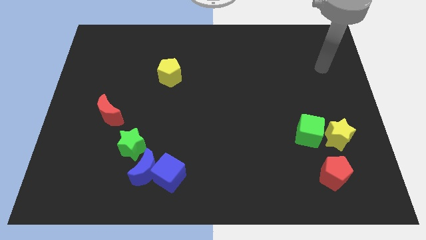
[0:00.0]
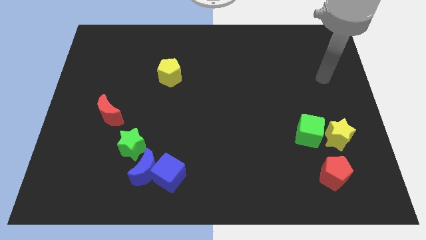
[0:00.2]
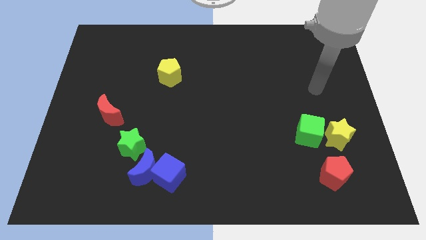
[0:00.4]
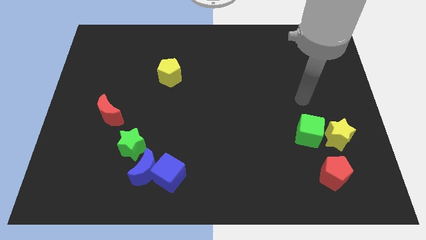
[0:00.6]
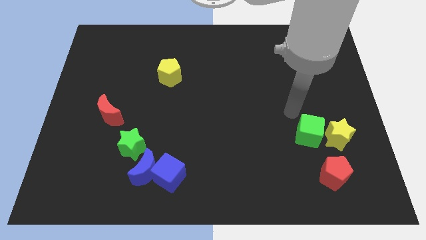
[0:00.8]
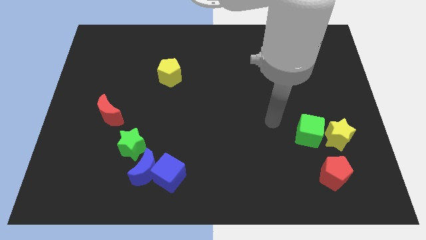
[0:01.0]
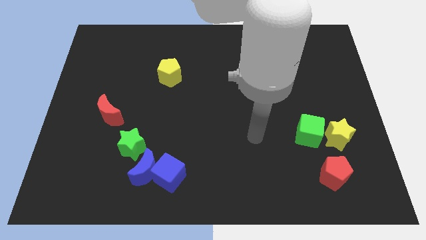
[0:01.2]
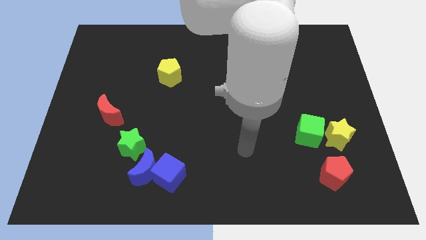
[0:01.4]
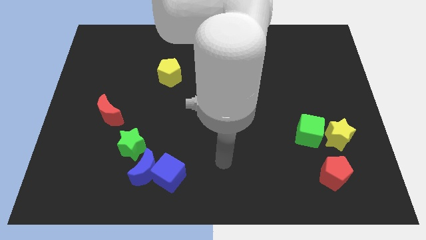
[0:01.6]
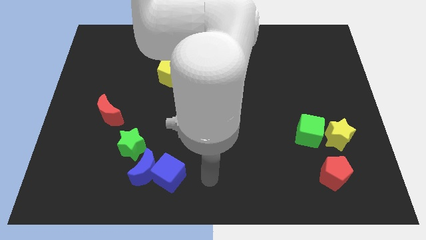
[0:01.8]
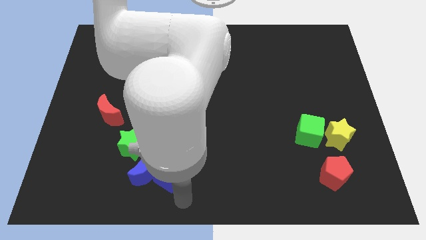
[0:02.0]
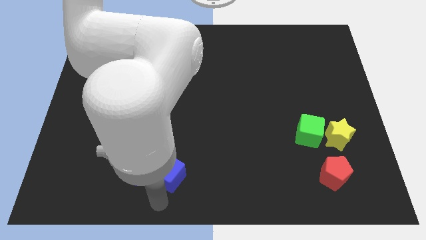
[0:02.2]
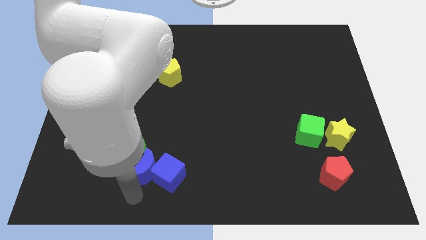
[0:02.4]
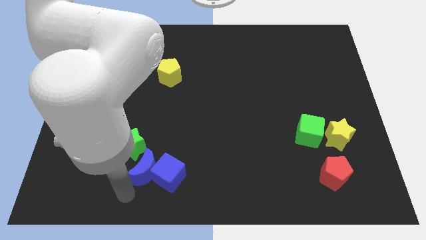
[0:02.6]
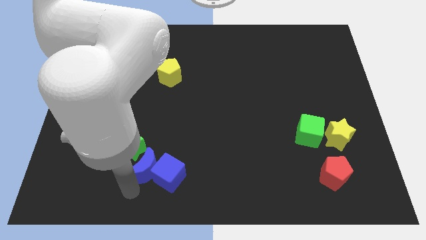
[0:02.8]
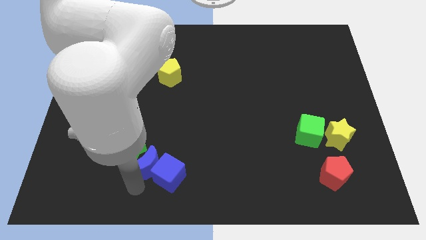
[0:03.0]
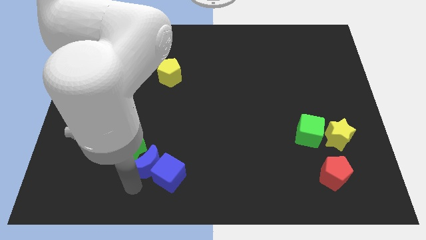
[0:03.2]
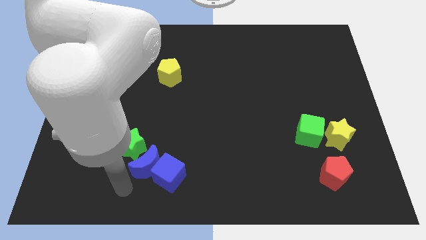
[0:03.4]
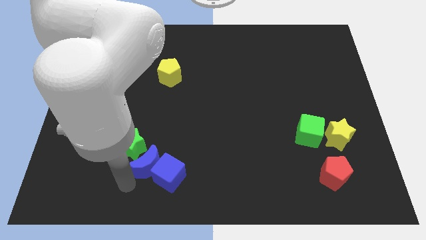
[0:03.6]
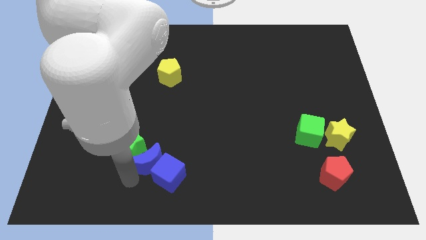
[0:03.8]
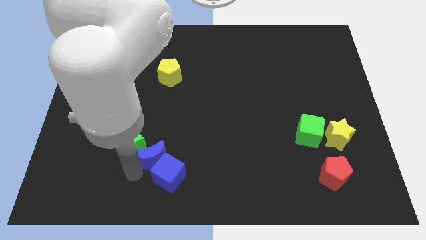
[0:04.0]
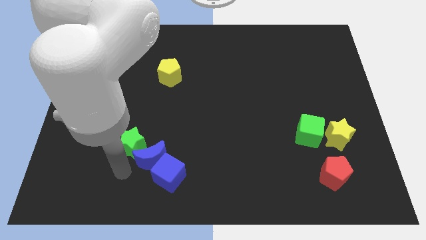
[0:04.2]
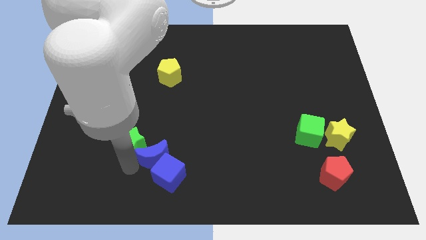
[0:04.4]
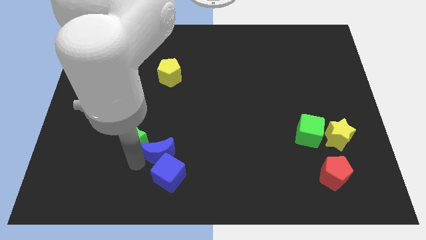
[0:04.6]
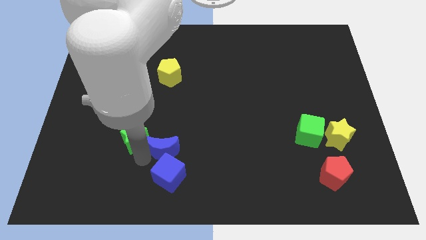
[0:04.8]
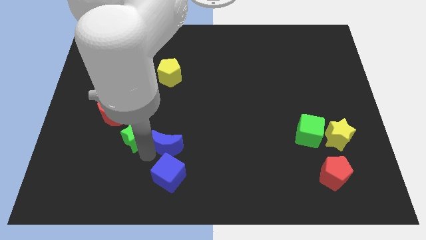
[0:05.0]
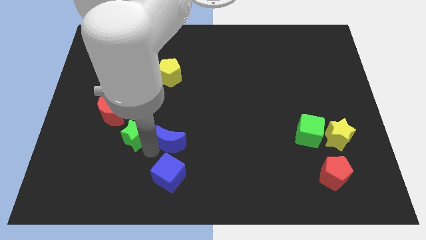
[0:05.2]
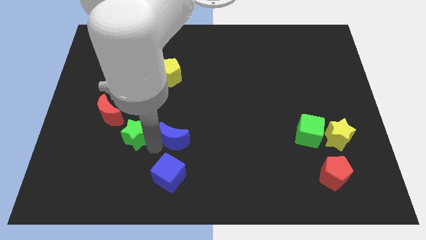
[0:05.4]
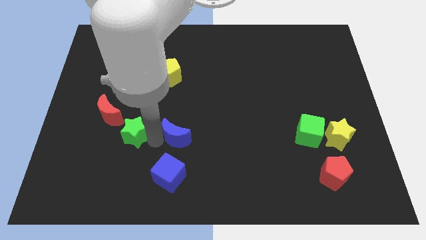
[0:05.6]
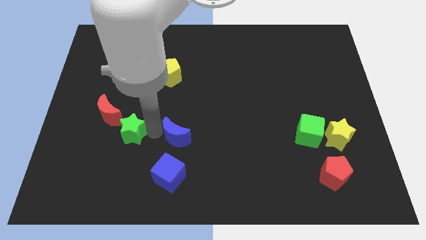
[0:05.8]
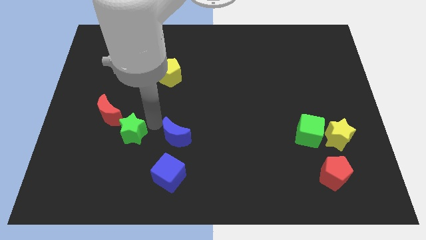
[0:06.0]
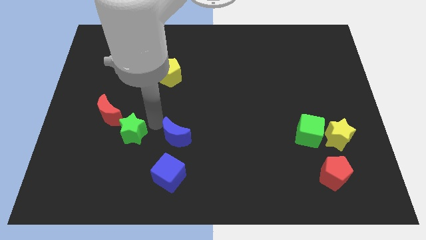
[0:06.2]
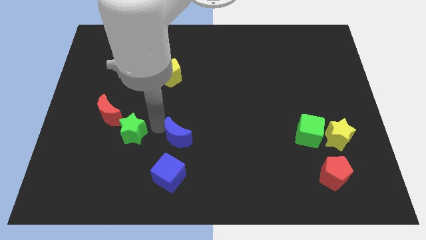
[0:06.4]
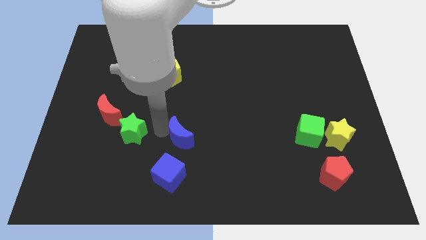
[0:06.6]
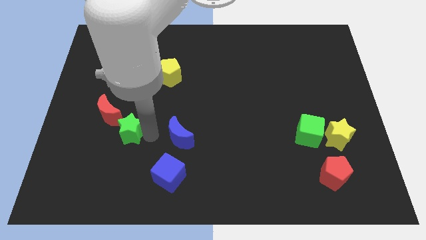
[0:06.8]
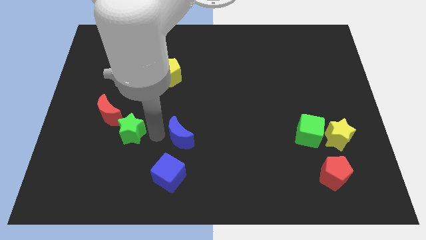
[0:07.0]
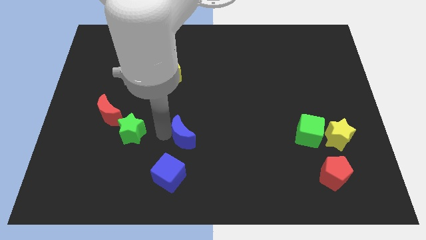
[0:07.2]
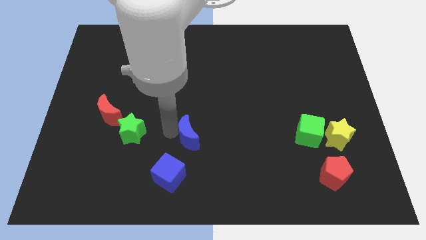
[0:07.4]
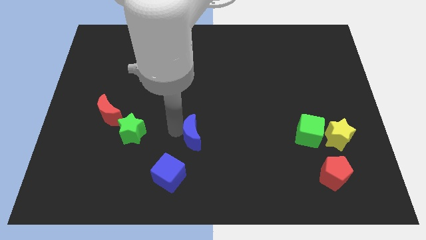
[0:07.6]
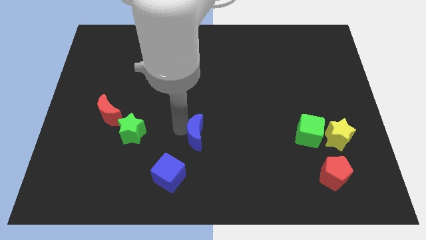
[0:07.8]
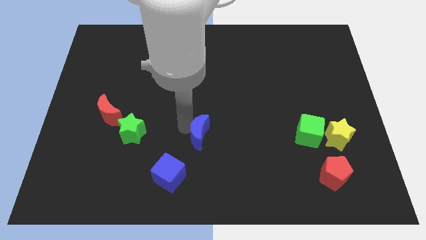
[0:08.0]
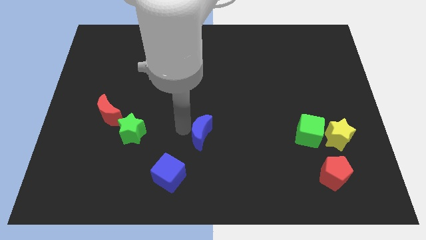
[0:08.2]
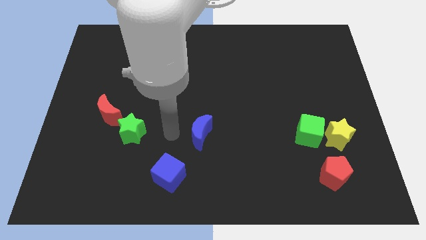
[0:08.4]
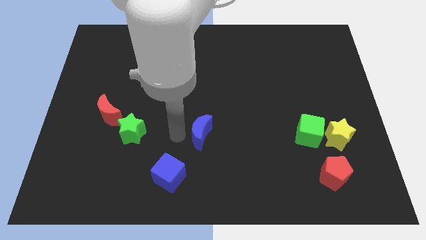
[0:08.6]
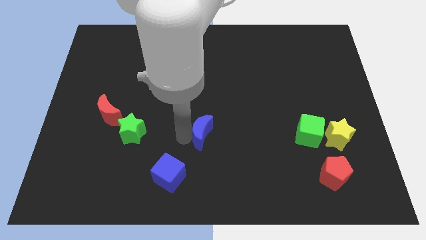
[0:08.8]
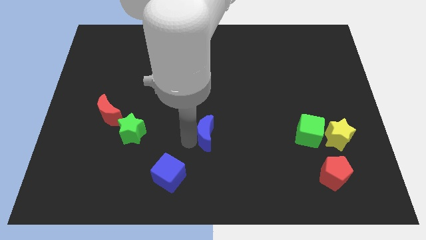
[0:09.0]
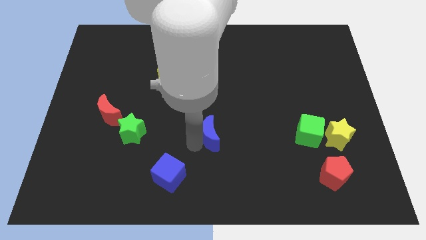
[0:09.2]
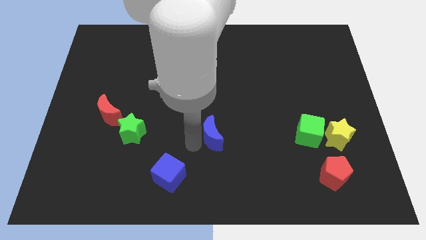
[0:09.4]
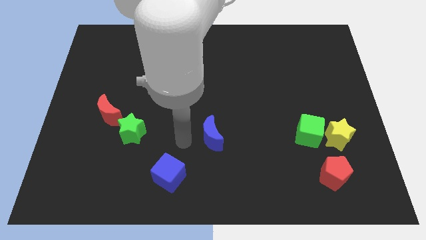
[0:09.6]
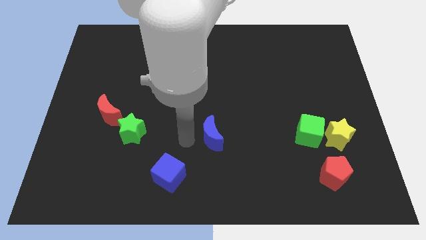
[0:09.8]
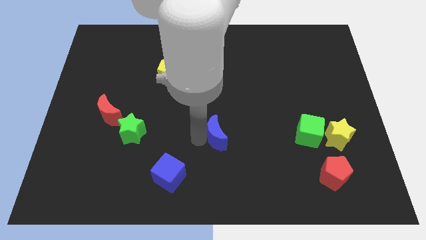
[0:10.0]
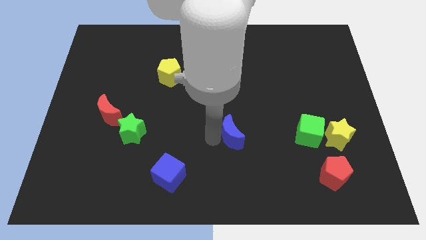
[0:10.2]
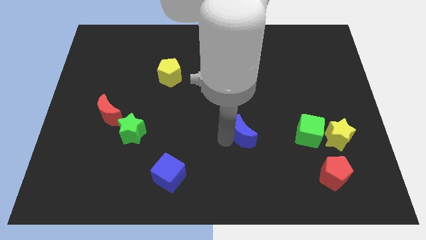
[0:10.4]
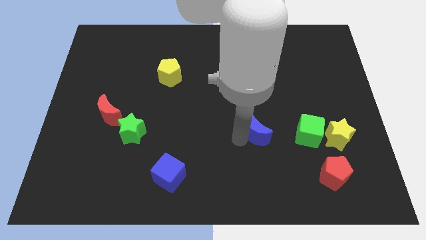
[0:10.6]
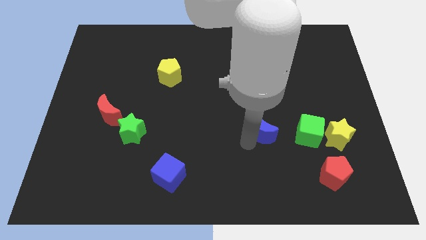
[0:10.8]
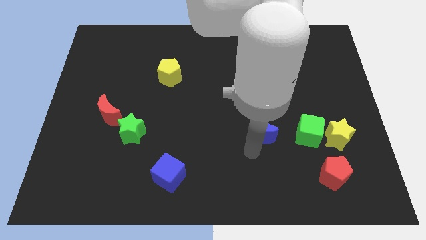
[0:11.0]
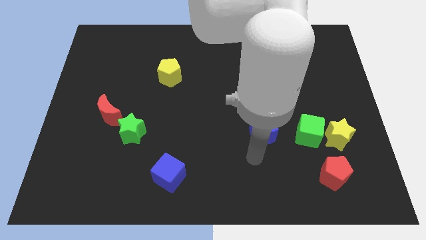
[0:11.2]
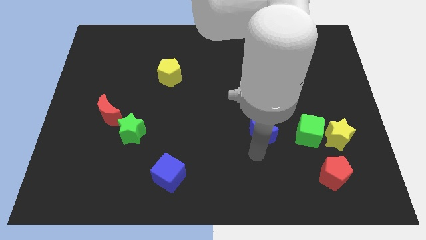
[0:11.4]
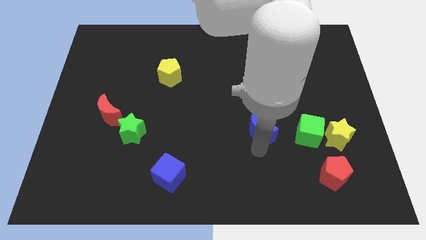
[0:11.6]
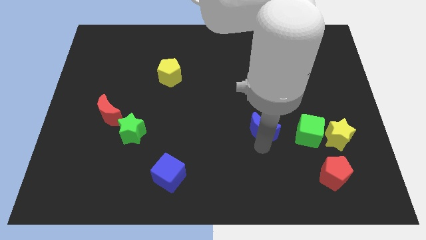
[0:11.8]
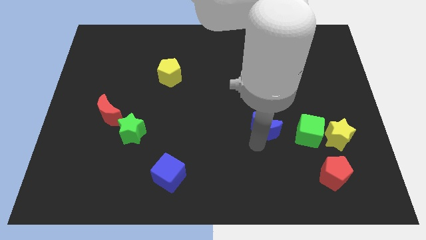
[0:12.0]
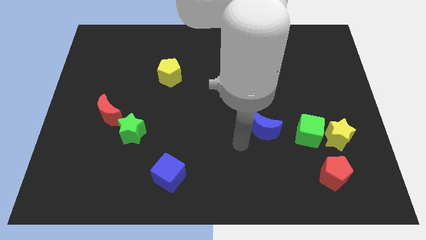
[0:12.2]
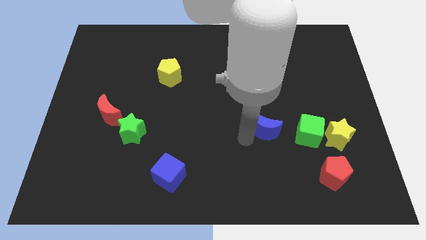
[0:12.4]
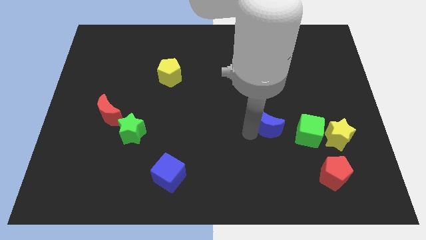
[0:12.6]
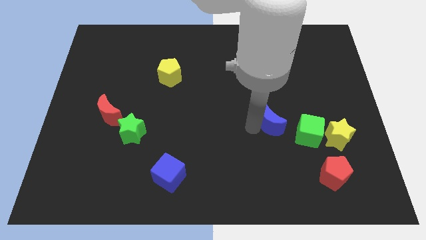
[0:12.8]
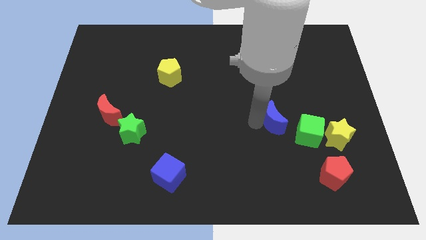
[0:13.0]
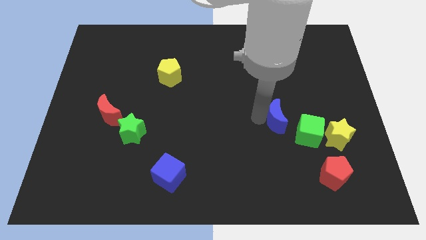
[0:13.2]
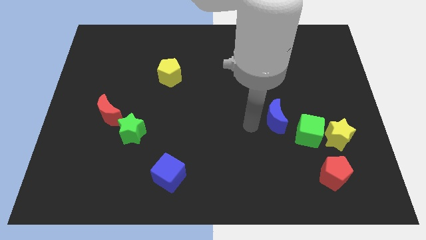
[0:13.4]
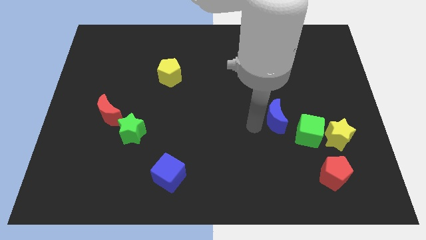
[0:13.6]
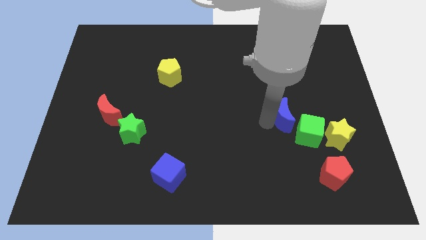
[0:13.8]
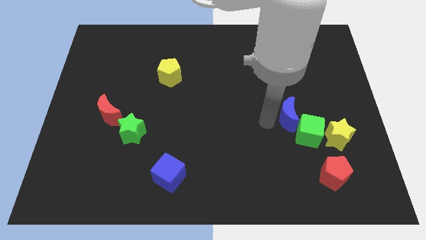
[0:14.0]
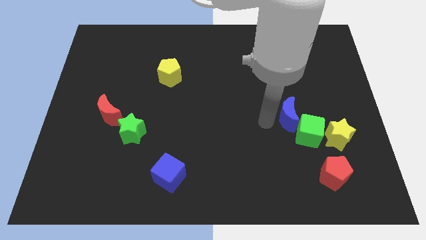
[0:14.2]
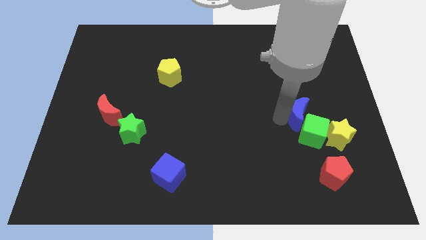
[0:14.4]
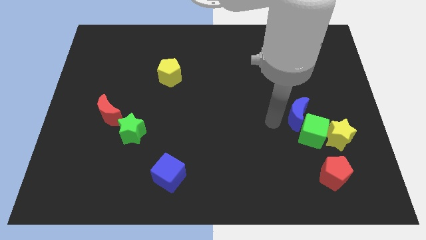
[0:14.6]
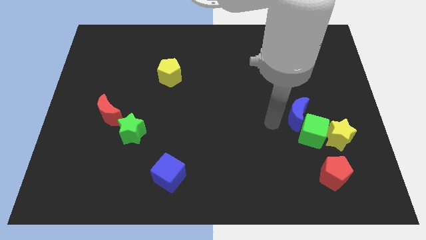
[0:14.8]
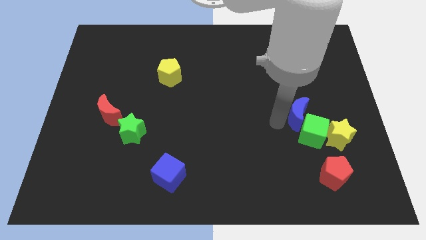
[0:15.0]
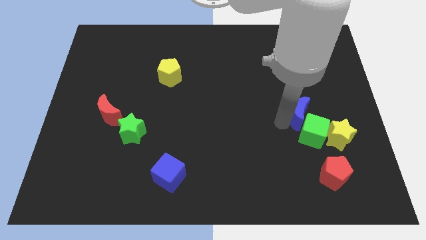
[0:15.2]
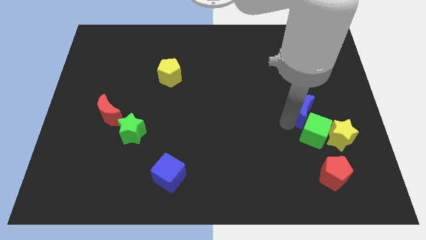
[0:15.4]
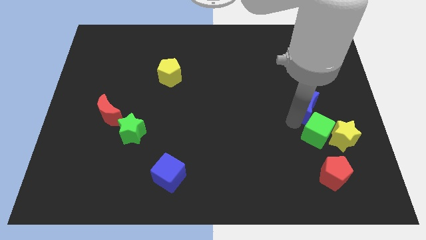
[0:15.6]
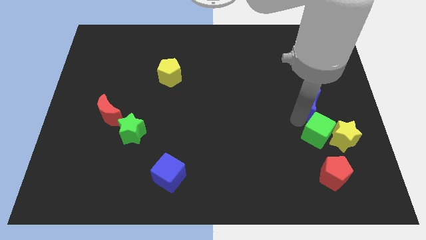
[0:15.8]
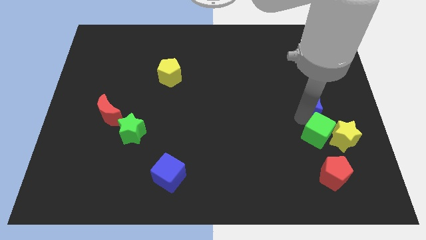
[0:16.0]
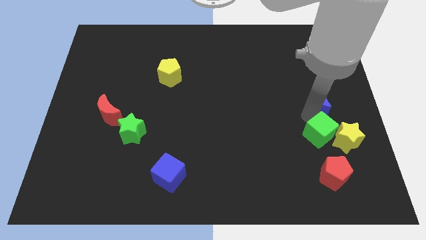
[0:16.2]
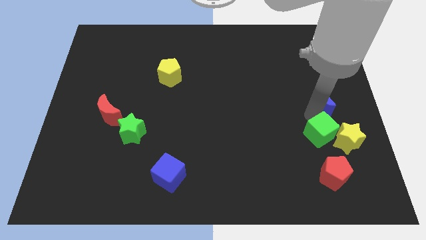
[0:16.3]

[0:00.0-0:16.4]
push the blue moon to the right side of the board
